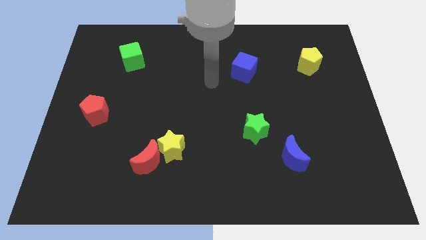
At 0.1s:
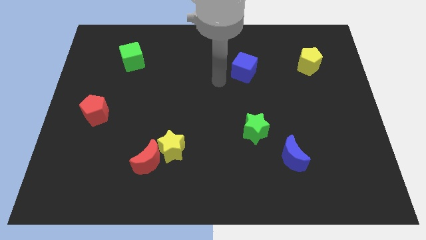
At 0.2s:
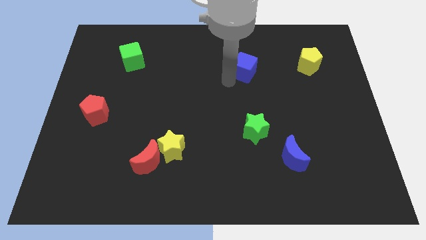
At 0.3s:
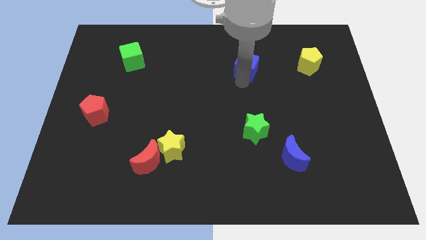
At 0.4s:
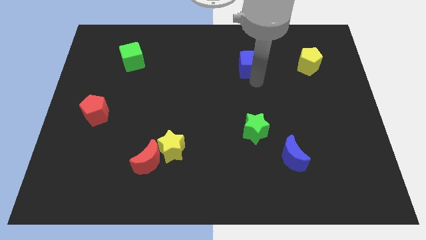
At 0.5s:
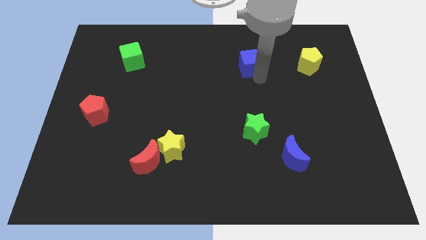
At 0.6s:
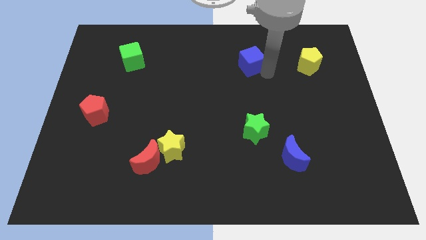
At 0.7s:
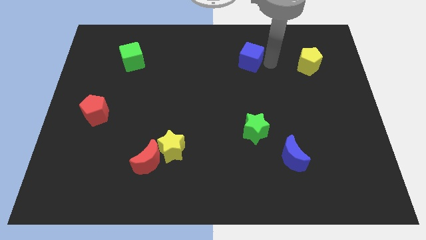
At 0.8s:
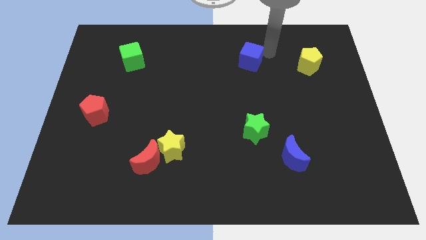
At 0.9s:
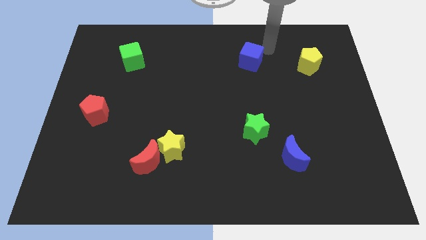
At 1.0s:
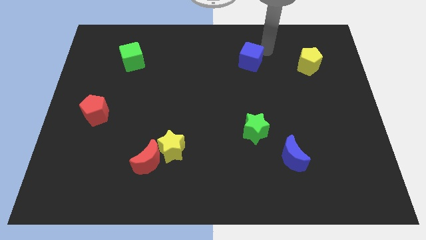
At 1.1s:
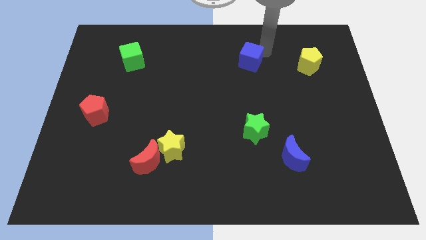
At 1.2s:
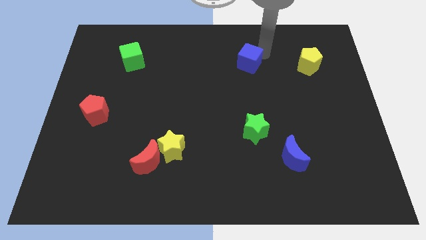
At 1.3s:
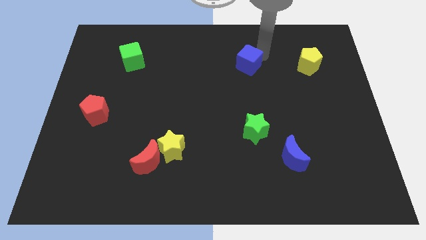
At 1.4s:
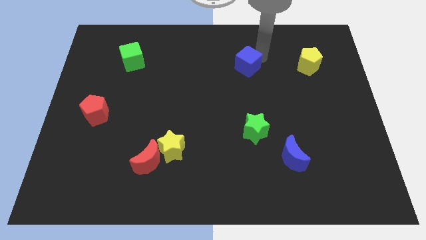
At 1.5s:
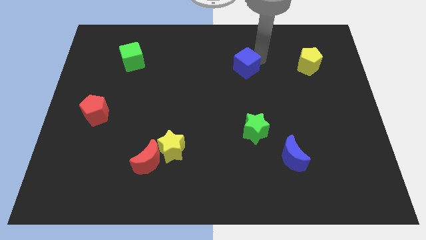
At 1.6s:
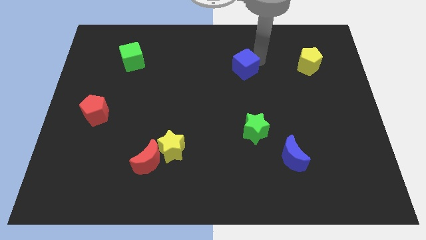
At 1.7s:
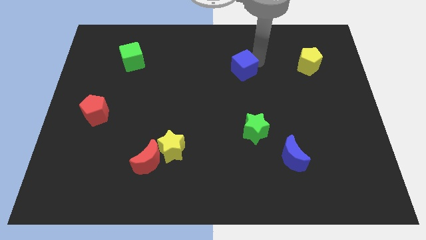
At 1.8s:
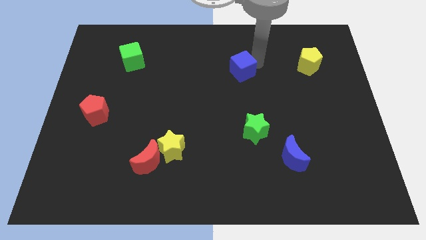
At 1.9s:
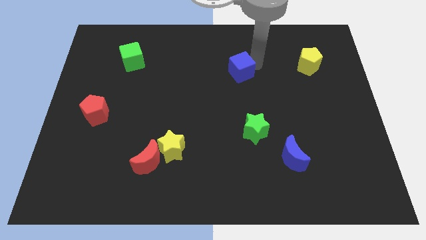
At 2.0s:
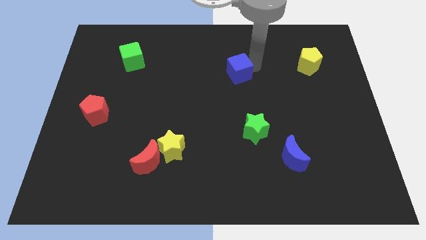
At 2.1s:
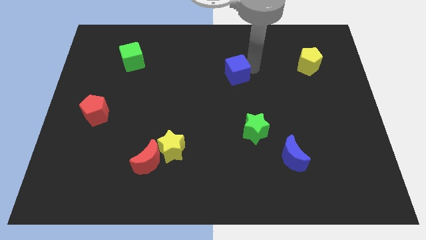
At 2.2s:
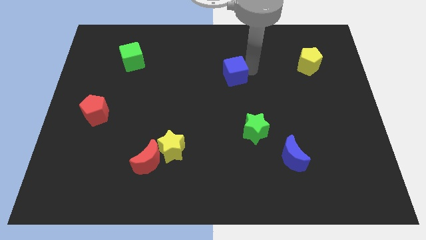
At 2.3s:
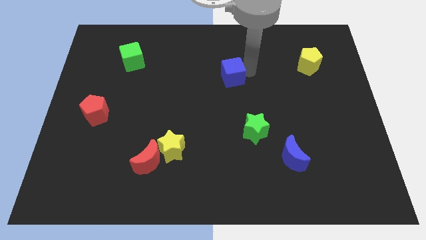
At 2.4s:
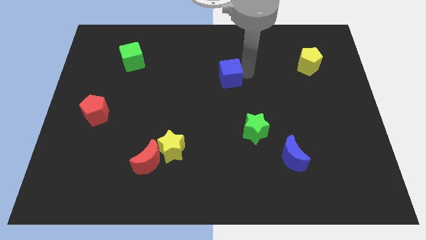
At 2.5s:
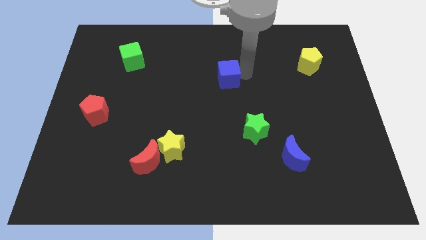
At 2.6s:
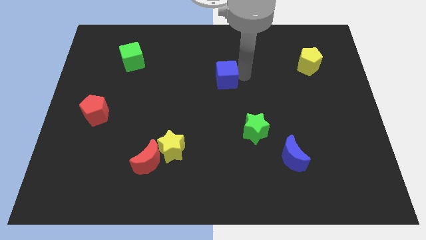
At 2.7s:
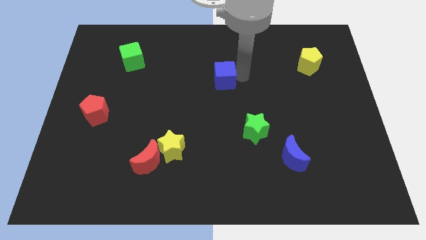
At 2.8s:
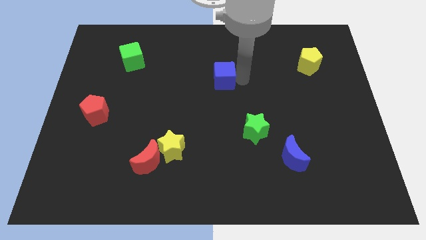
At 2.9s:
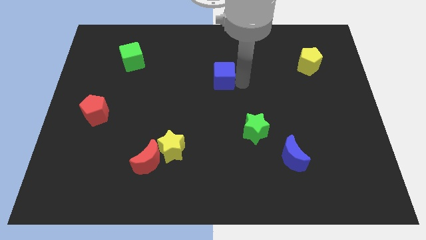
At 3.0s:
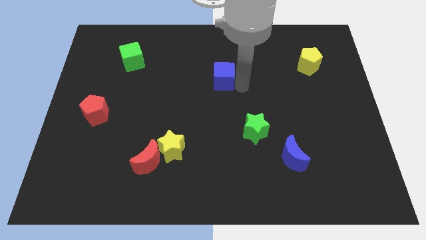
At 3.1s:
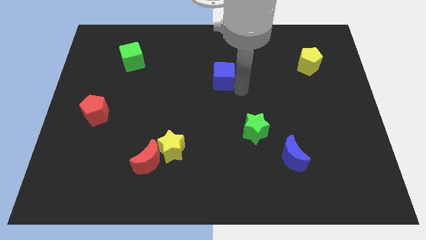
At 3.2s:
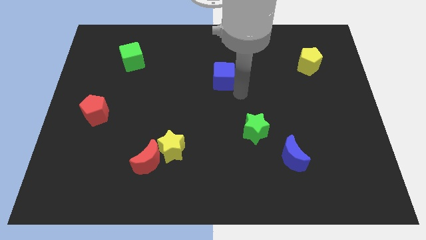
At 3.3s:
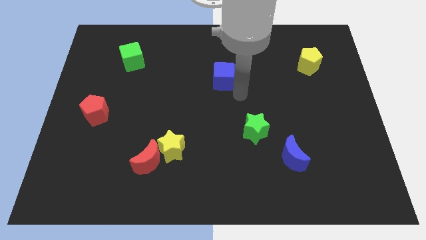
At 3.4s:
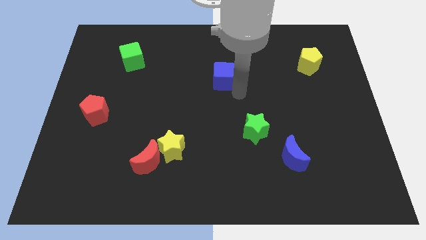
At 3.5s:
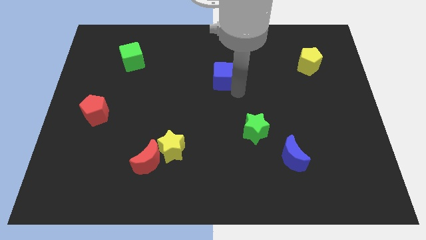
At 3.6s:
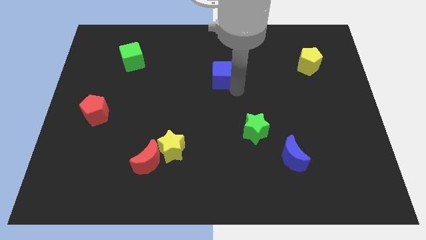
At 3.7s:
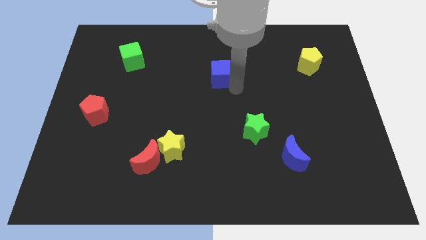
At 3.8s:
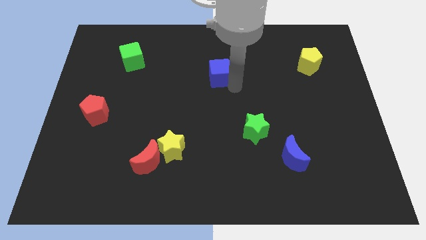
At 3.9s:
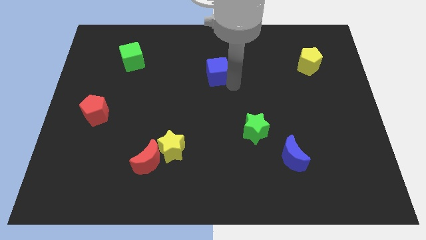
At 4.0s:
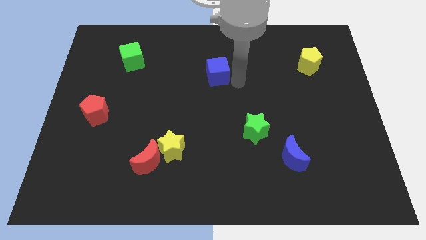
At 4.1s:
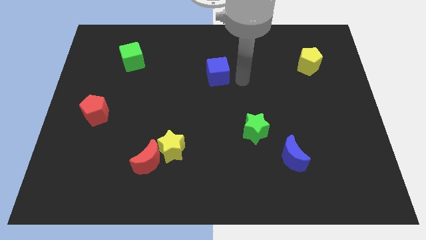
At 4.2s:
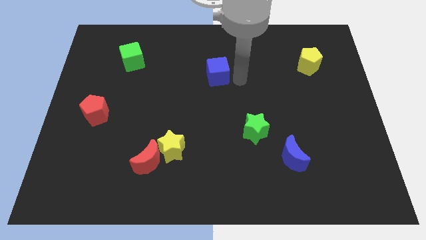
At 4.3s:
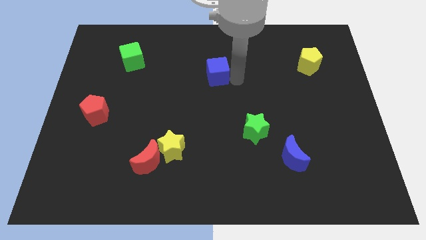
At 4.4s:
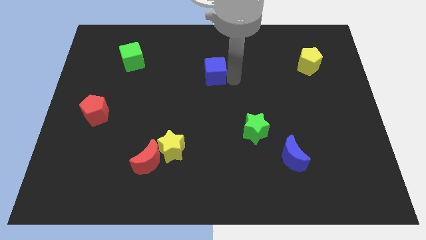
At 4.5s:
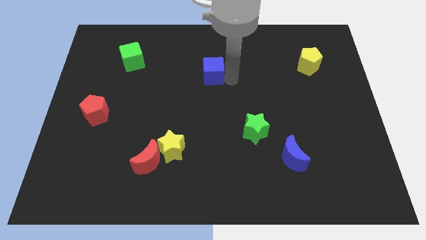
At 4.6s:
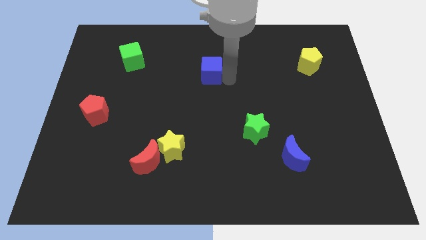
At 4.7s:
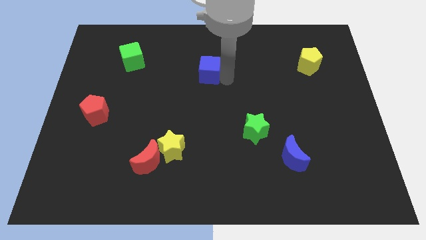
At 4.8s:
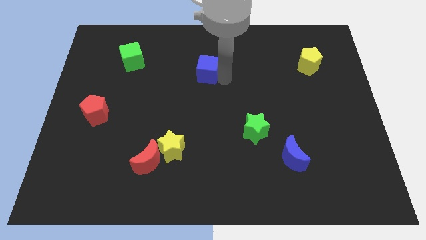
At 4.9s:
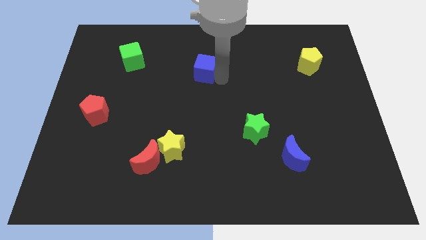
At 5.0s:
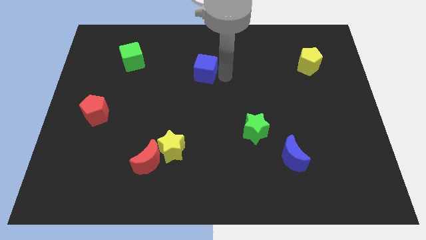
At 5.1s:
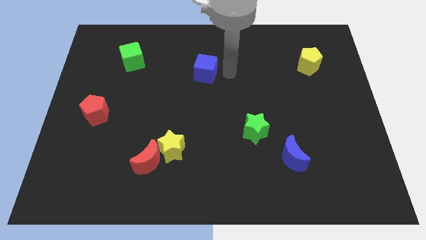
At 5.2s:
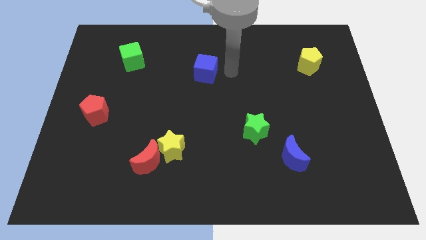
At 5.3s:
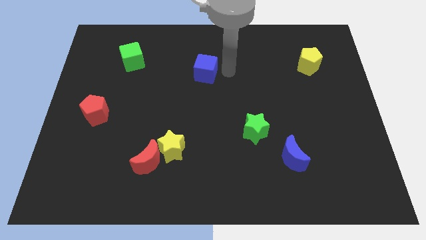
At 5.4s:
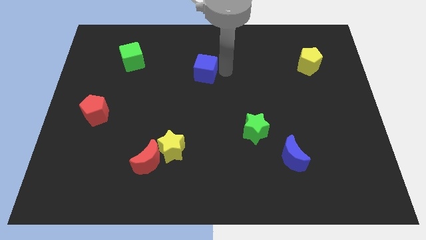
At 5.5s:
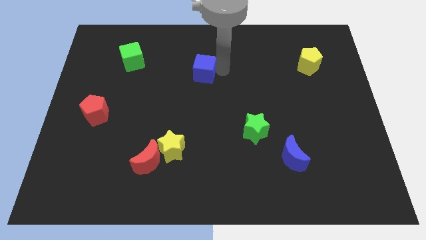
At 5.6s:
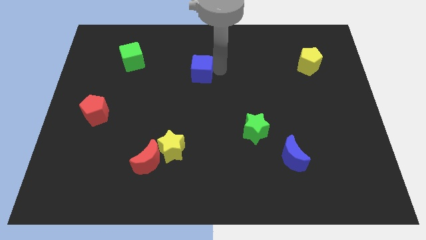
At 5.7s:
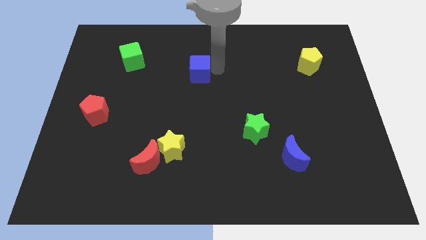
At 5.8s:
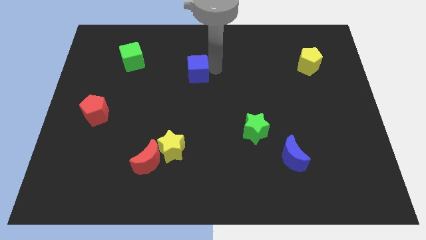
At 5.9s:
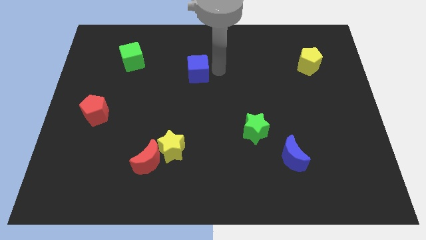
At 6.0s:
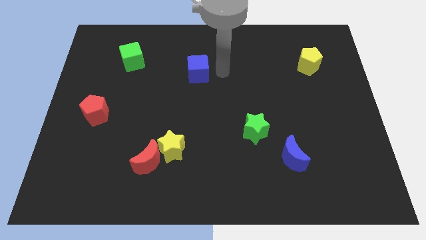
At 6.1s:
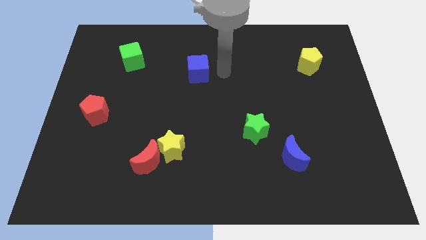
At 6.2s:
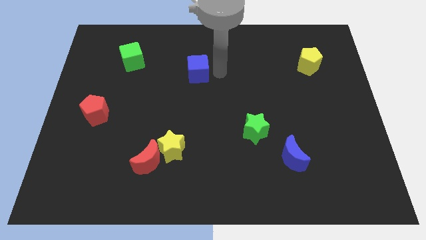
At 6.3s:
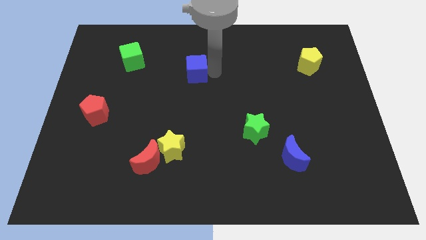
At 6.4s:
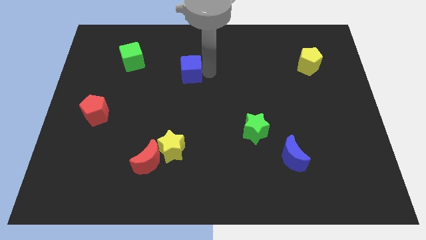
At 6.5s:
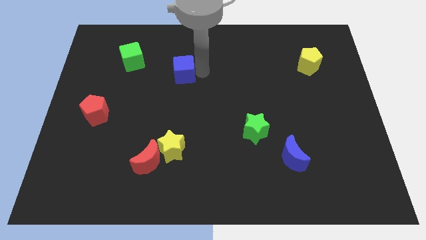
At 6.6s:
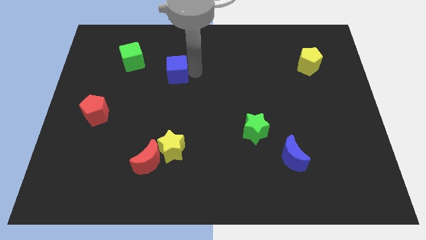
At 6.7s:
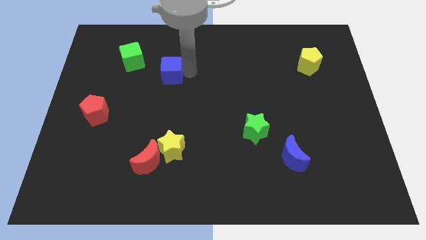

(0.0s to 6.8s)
move the blue cube diagonally down and to the right of the green cube

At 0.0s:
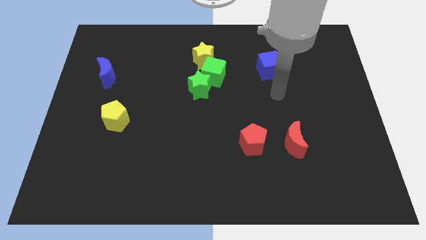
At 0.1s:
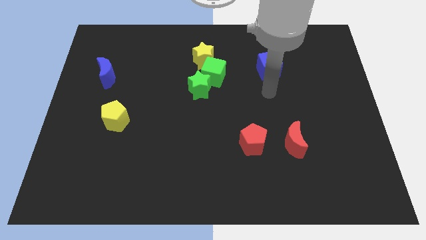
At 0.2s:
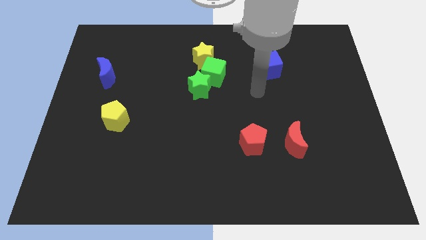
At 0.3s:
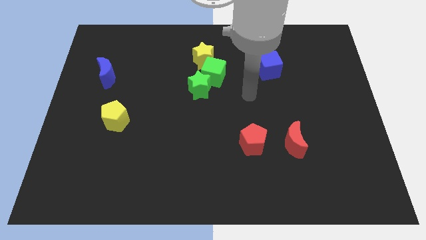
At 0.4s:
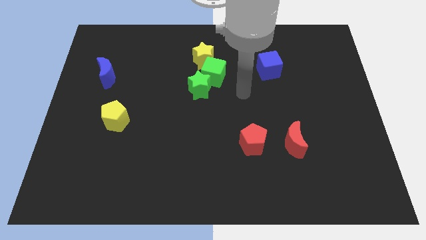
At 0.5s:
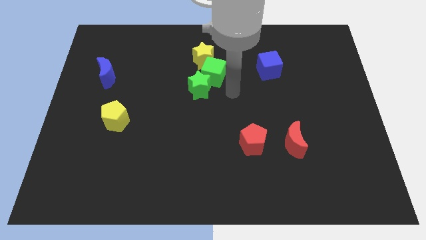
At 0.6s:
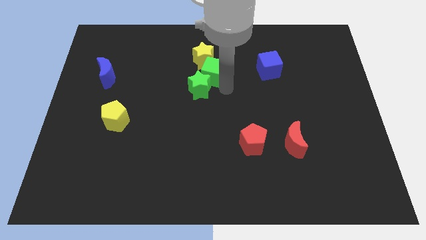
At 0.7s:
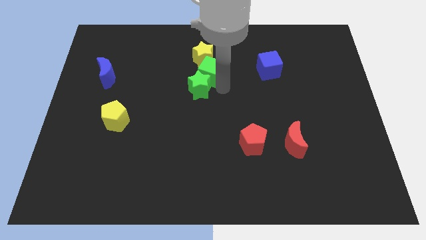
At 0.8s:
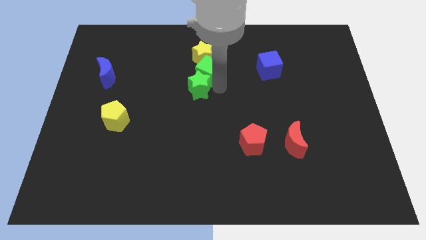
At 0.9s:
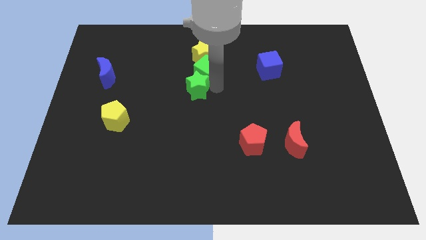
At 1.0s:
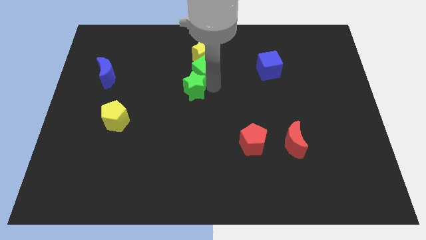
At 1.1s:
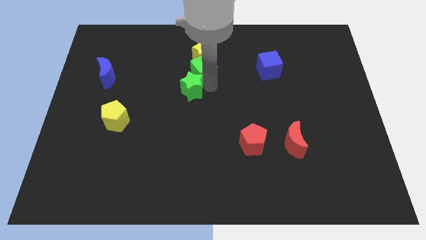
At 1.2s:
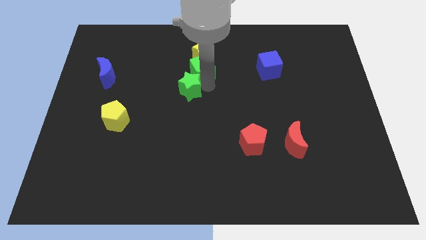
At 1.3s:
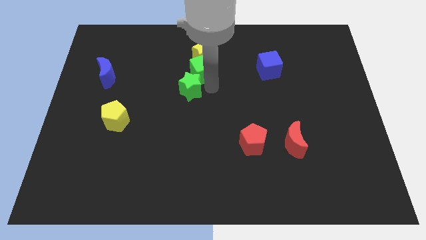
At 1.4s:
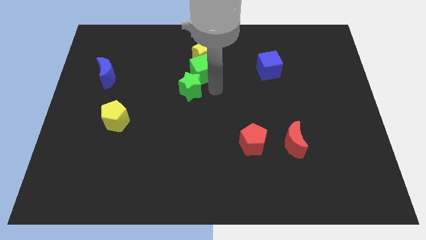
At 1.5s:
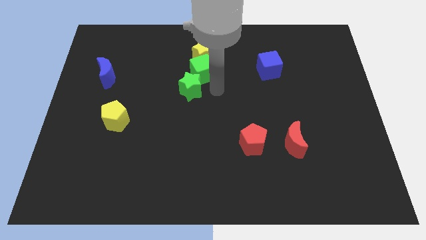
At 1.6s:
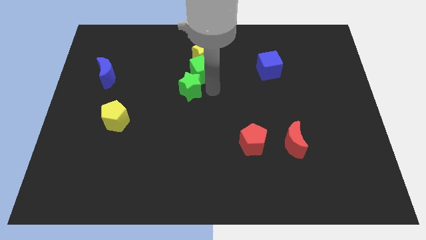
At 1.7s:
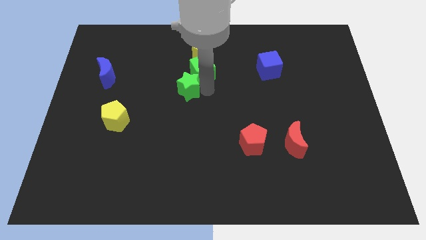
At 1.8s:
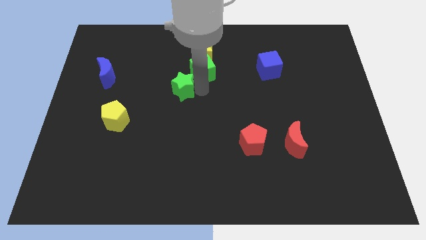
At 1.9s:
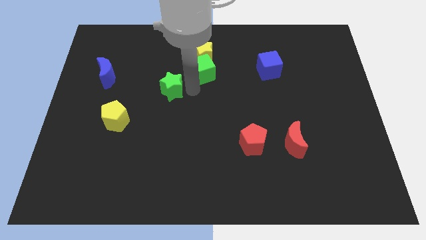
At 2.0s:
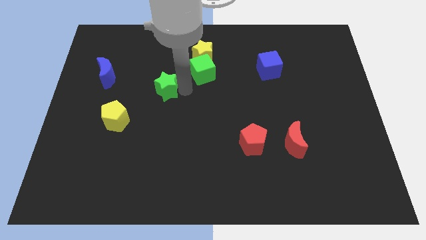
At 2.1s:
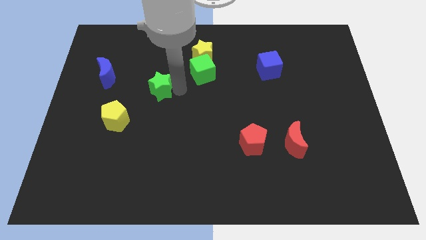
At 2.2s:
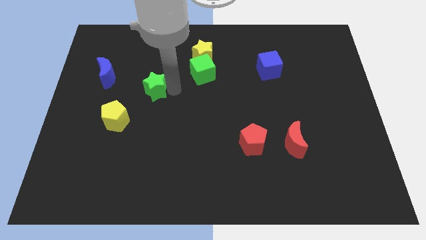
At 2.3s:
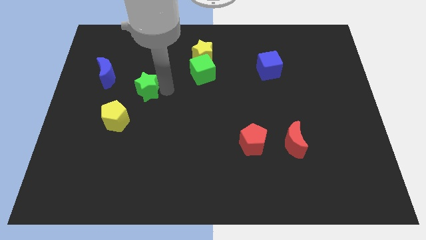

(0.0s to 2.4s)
move the green star to the bottom right of the blue moon
